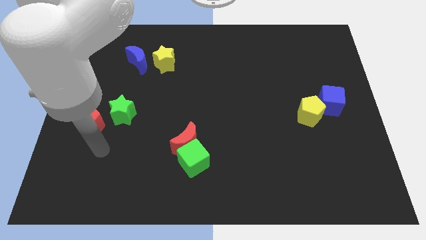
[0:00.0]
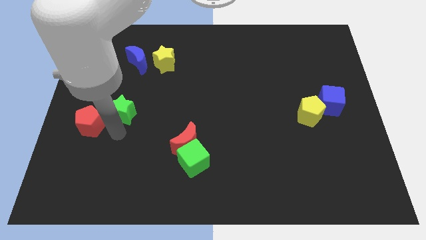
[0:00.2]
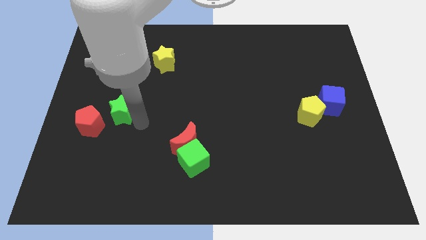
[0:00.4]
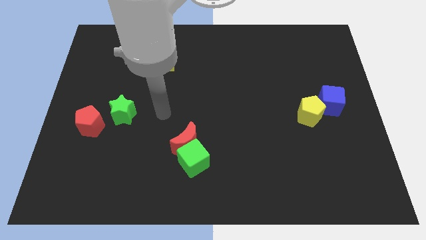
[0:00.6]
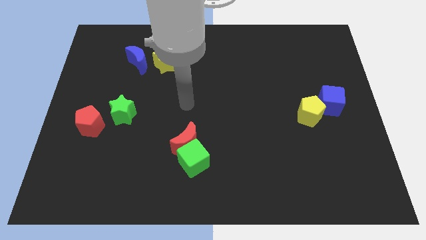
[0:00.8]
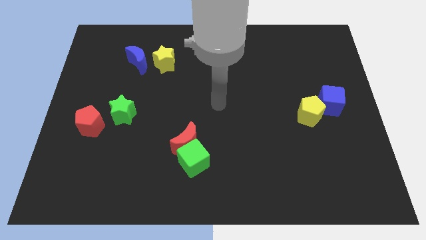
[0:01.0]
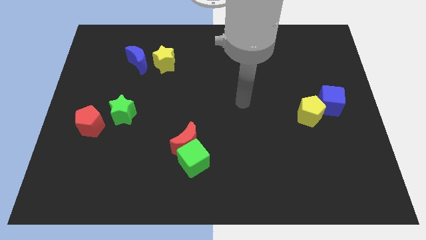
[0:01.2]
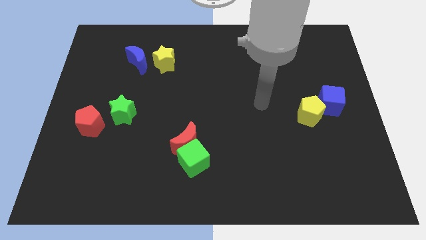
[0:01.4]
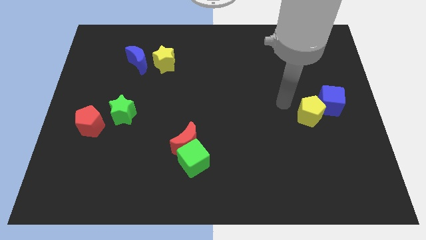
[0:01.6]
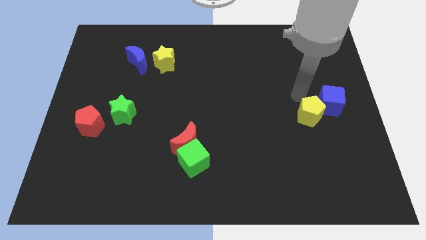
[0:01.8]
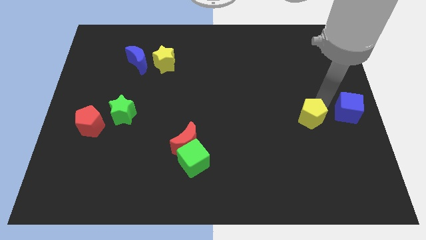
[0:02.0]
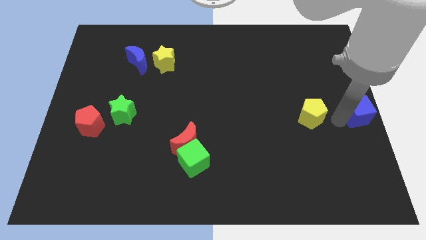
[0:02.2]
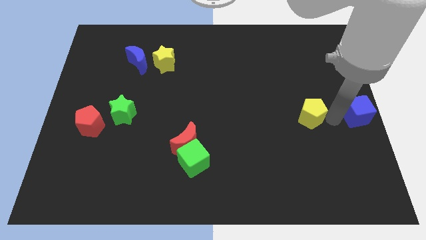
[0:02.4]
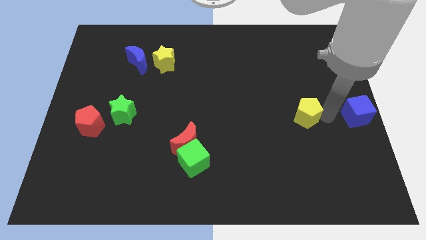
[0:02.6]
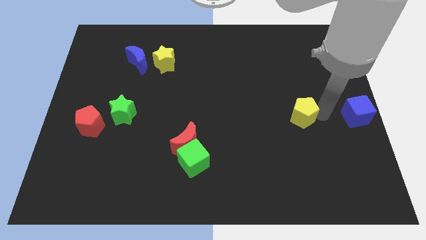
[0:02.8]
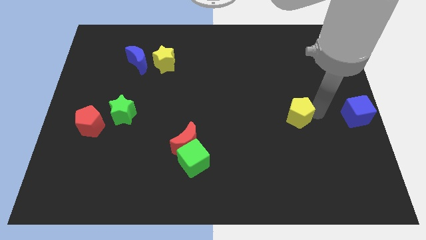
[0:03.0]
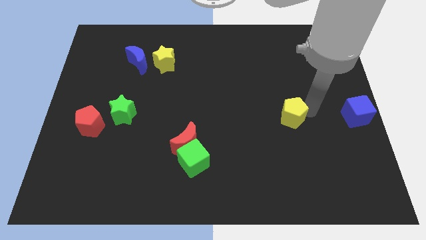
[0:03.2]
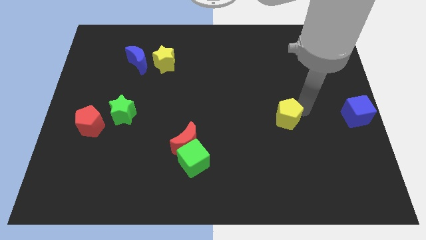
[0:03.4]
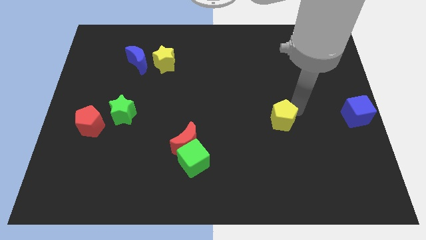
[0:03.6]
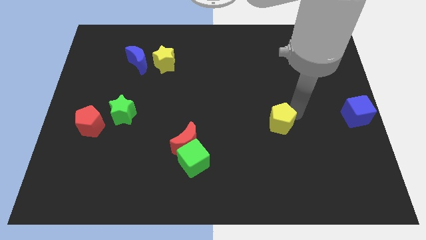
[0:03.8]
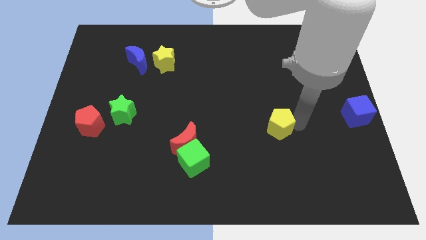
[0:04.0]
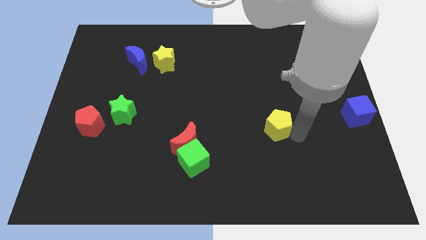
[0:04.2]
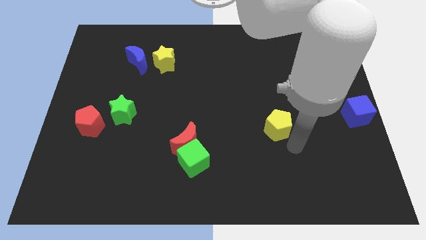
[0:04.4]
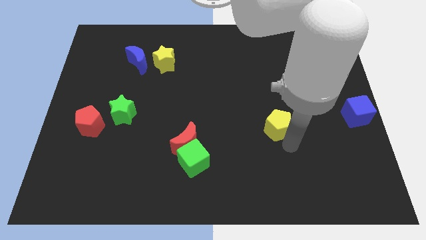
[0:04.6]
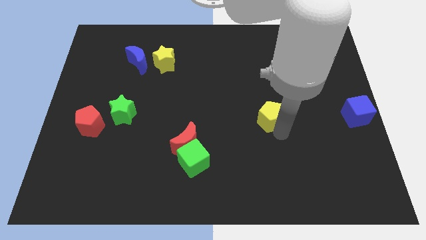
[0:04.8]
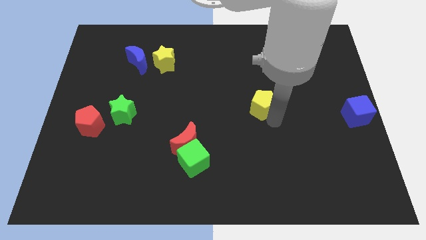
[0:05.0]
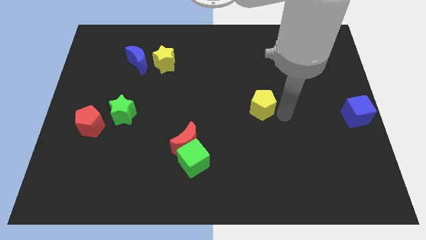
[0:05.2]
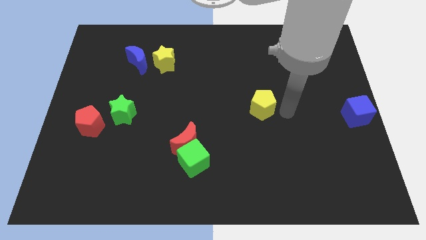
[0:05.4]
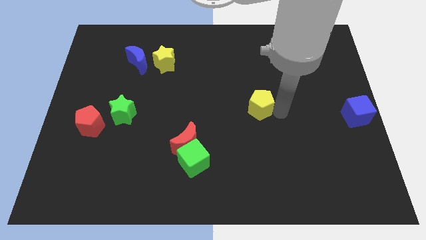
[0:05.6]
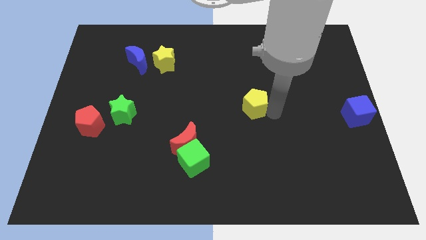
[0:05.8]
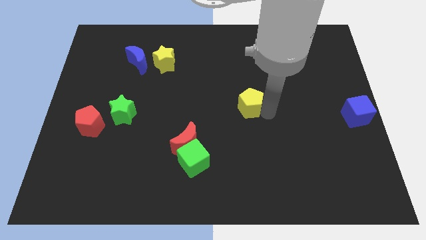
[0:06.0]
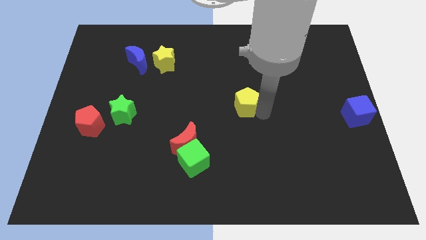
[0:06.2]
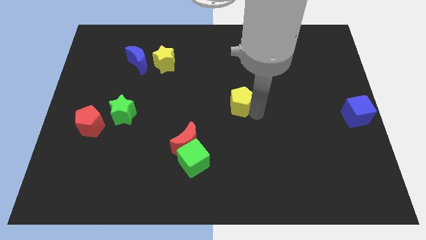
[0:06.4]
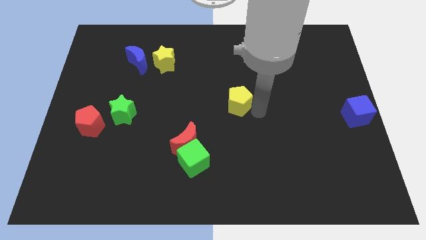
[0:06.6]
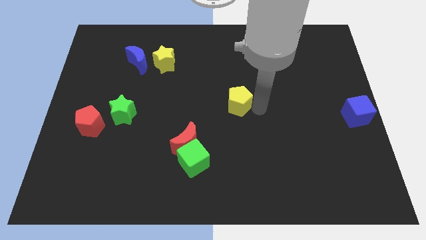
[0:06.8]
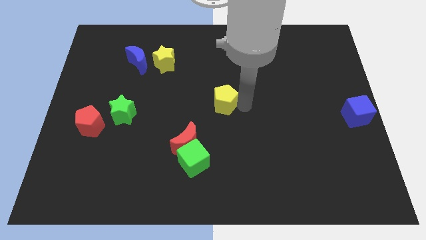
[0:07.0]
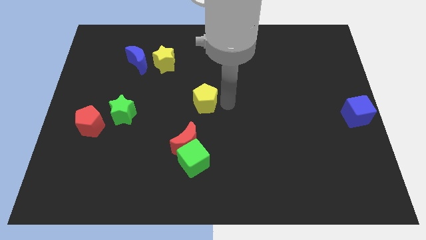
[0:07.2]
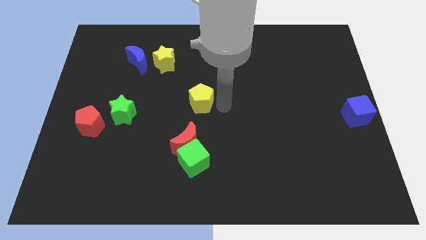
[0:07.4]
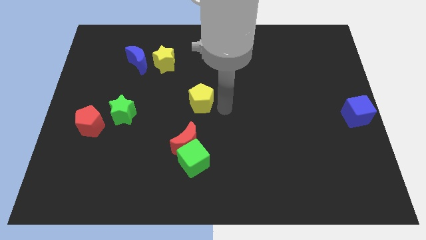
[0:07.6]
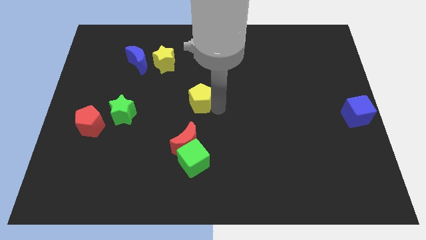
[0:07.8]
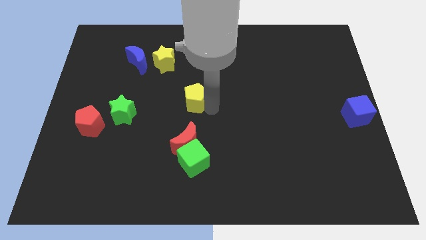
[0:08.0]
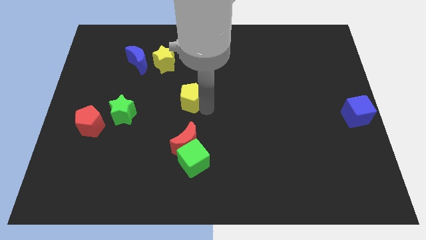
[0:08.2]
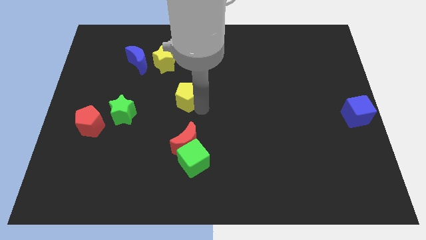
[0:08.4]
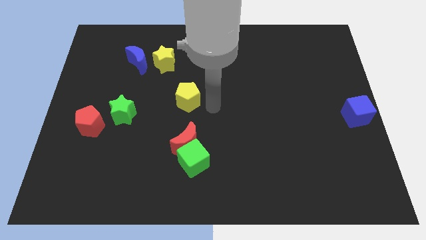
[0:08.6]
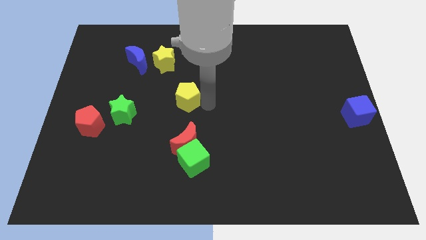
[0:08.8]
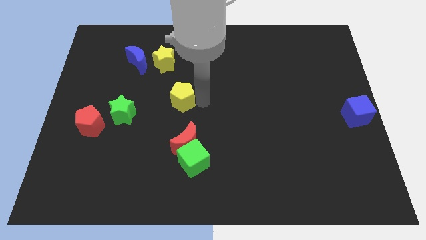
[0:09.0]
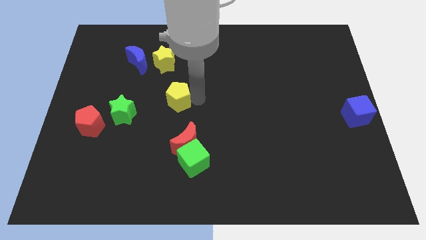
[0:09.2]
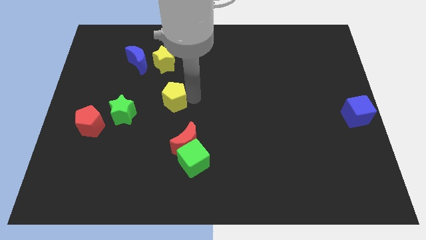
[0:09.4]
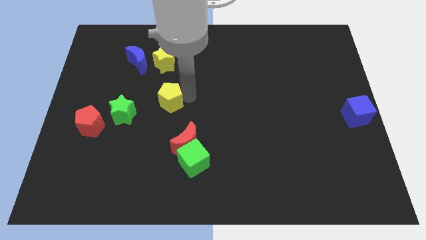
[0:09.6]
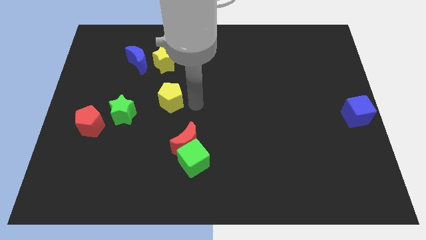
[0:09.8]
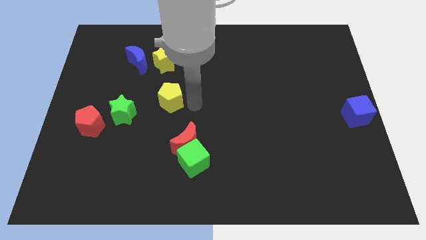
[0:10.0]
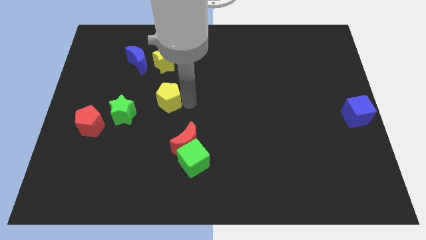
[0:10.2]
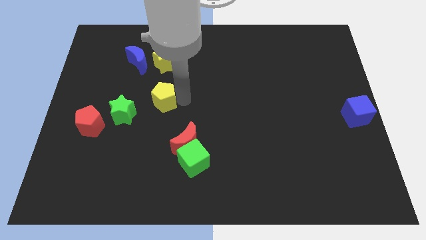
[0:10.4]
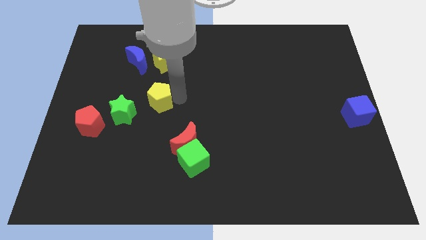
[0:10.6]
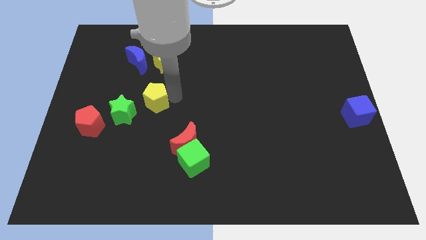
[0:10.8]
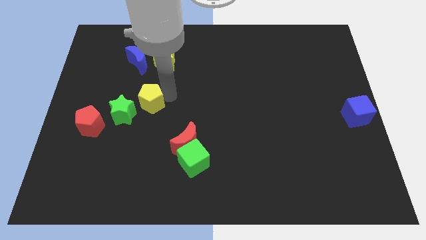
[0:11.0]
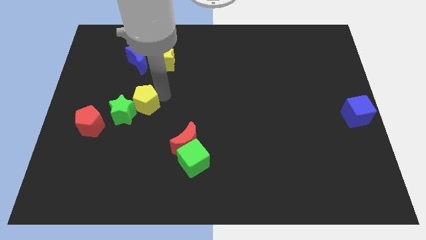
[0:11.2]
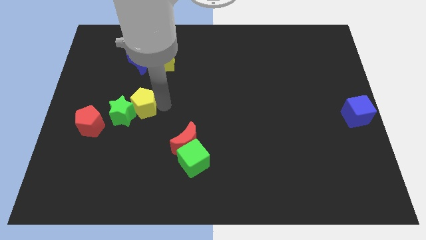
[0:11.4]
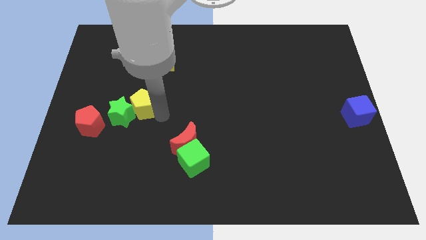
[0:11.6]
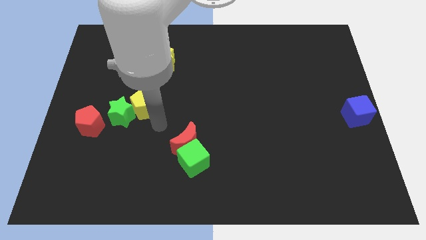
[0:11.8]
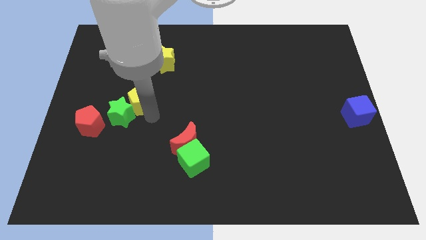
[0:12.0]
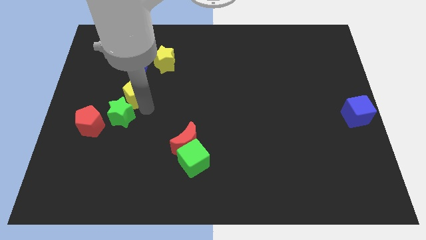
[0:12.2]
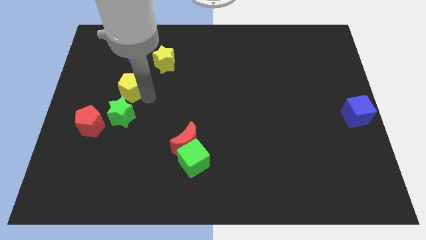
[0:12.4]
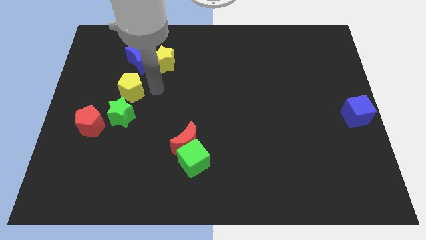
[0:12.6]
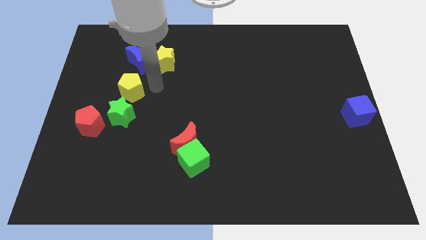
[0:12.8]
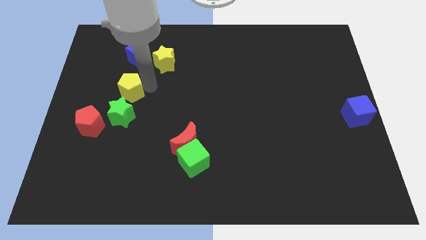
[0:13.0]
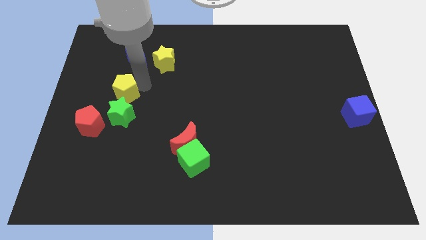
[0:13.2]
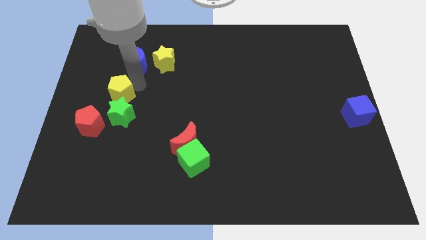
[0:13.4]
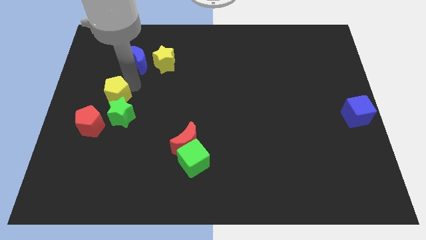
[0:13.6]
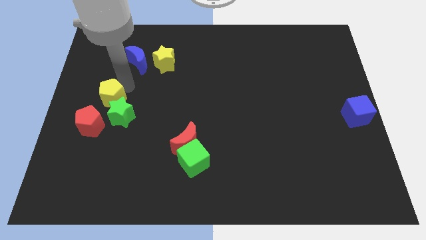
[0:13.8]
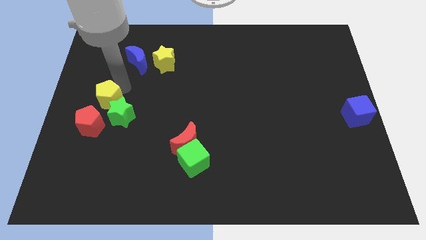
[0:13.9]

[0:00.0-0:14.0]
slide the yellow pentagon to the center left
